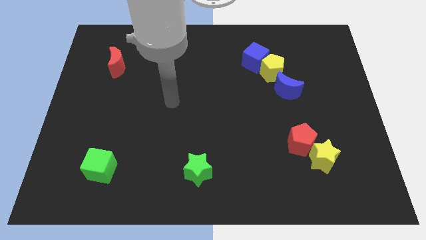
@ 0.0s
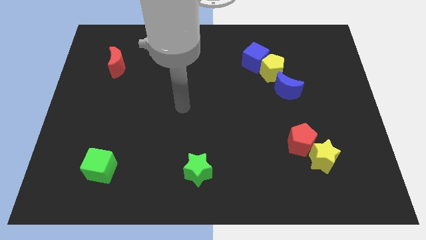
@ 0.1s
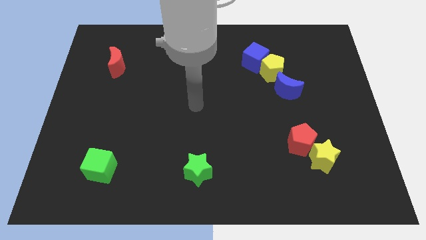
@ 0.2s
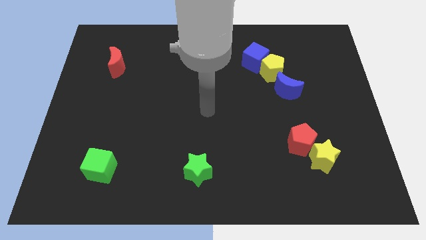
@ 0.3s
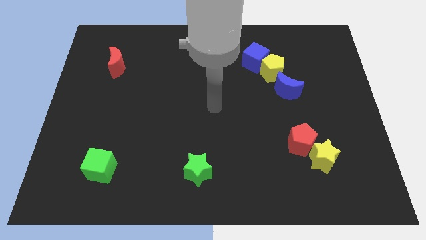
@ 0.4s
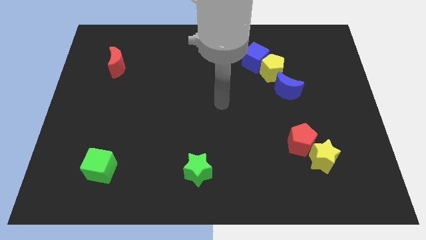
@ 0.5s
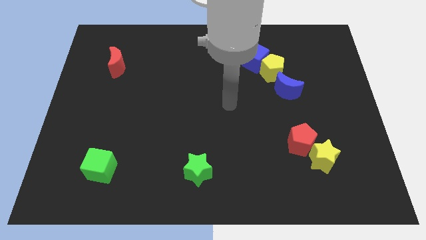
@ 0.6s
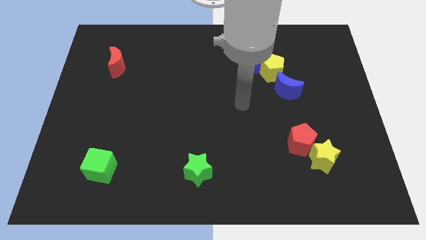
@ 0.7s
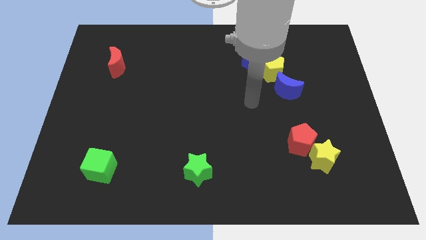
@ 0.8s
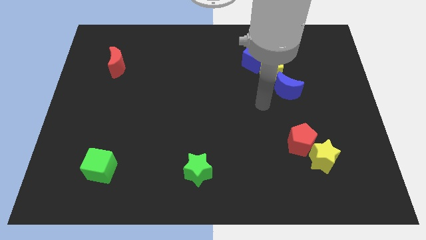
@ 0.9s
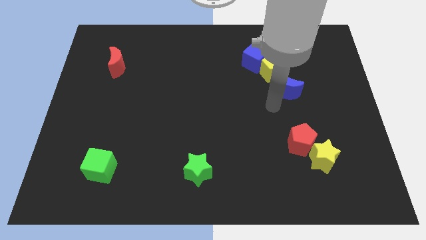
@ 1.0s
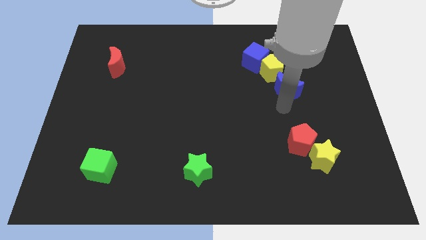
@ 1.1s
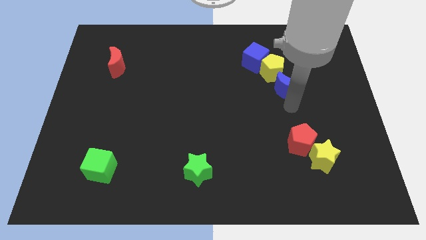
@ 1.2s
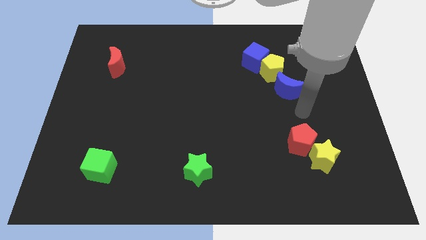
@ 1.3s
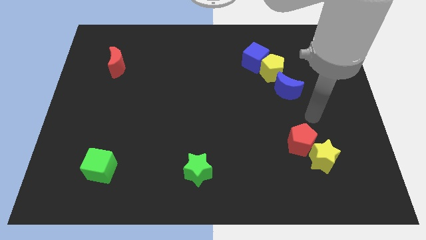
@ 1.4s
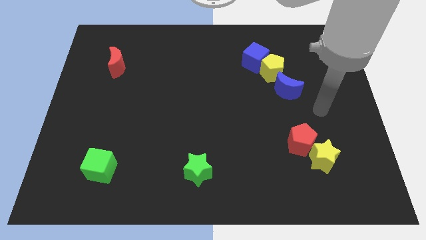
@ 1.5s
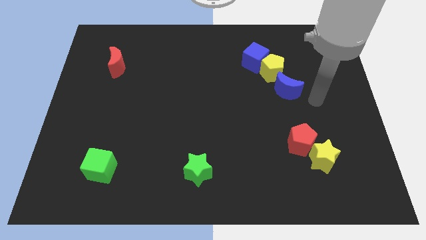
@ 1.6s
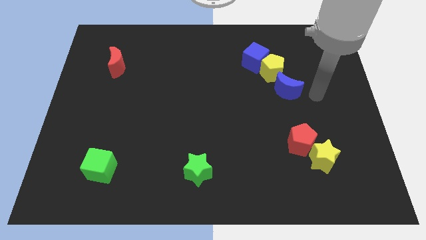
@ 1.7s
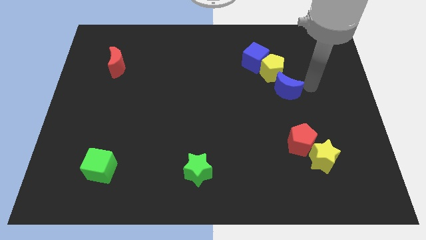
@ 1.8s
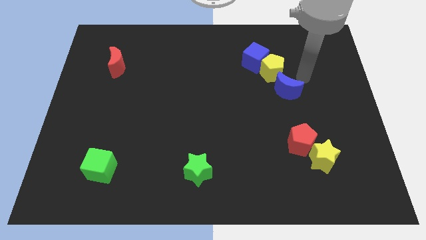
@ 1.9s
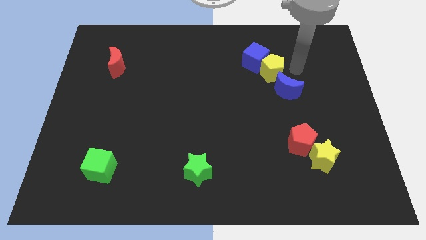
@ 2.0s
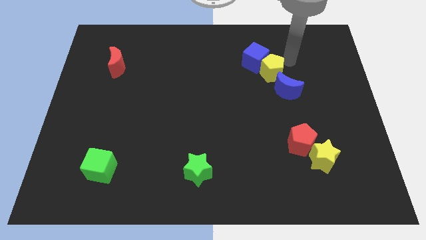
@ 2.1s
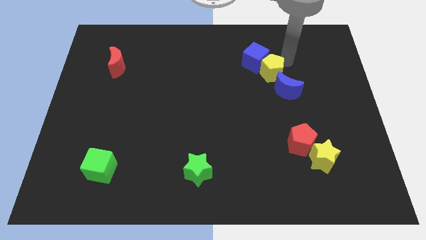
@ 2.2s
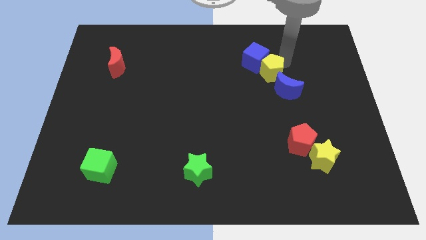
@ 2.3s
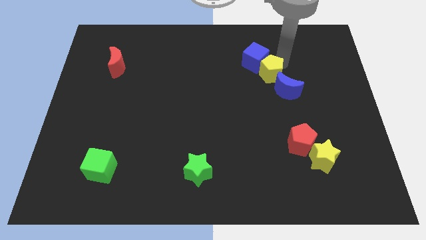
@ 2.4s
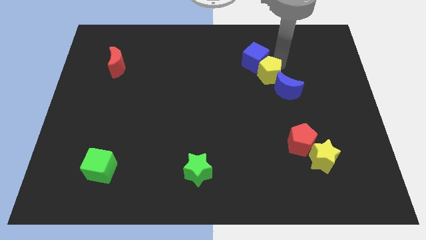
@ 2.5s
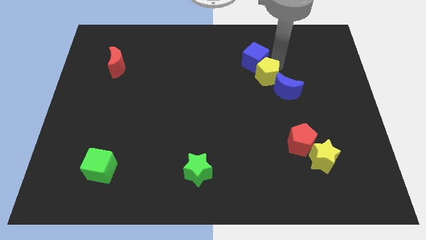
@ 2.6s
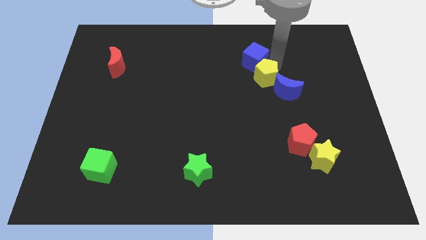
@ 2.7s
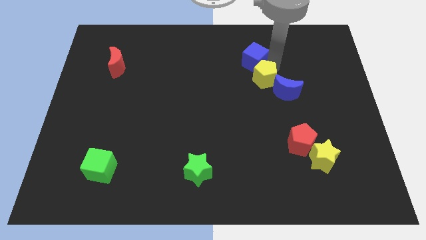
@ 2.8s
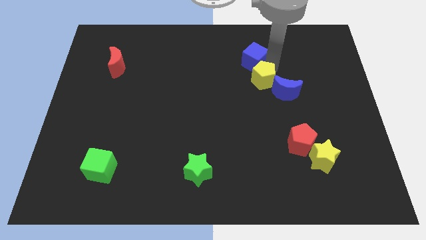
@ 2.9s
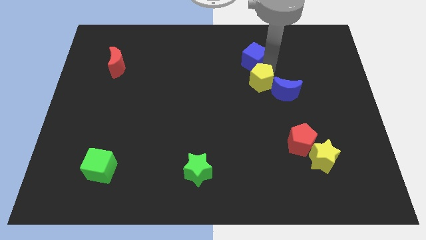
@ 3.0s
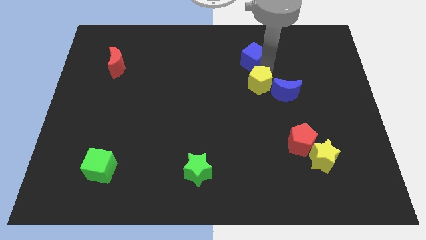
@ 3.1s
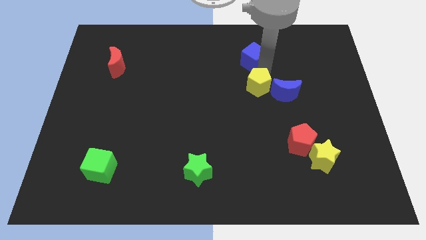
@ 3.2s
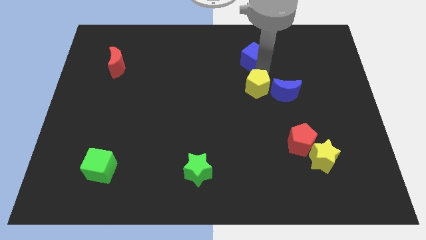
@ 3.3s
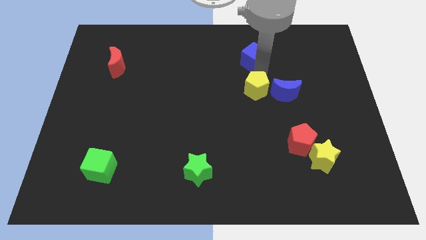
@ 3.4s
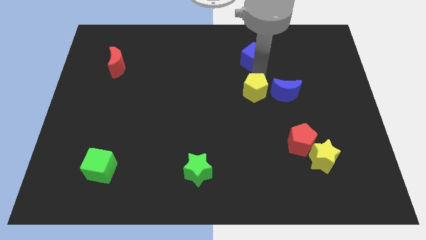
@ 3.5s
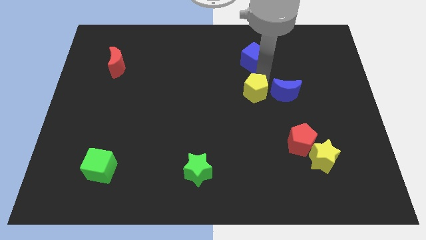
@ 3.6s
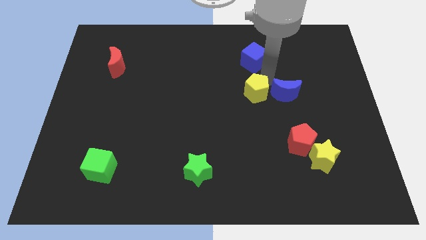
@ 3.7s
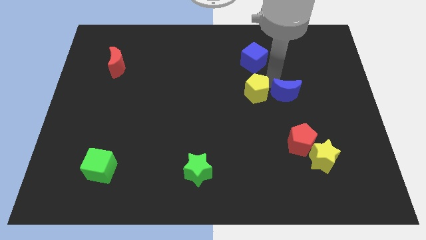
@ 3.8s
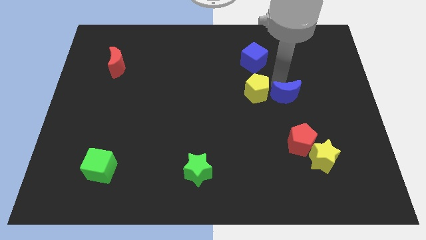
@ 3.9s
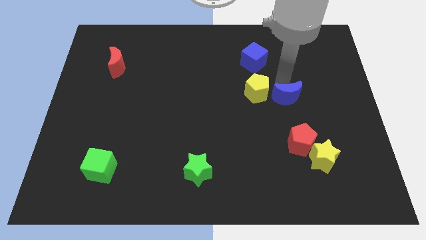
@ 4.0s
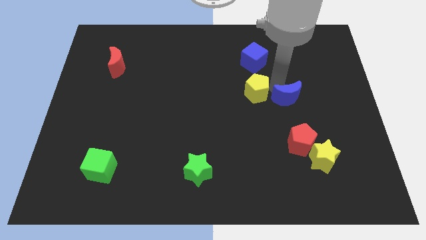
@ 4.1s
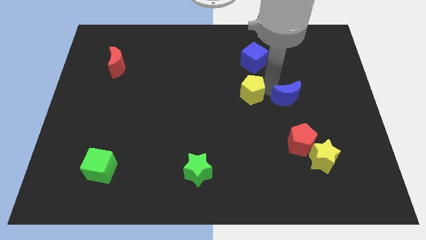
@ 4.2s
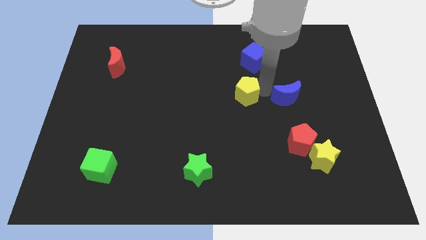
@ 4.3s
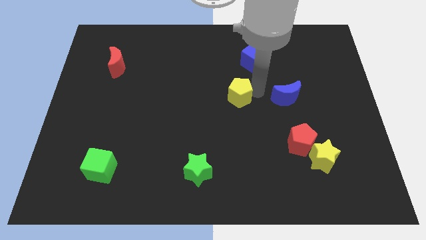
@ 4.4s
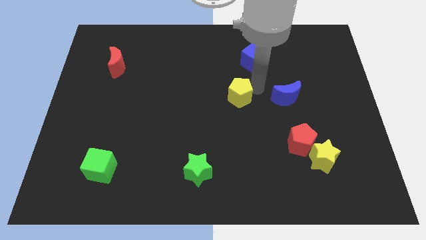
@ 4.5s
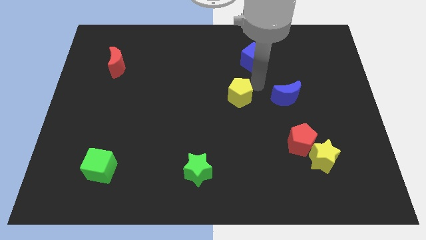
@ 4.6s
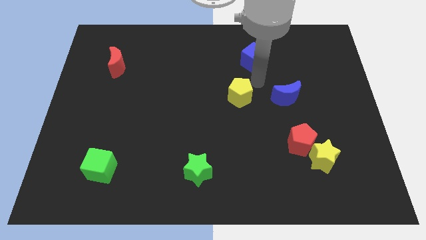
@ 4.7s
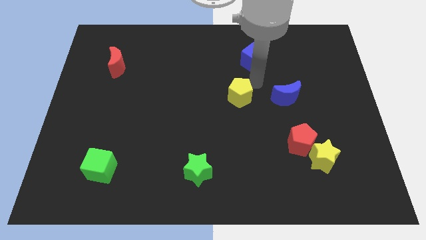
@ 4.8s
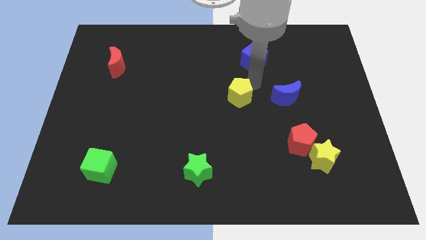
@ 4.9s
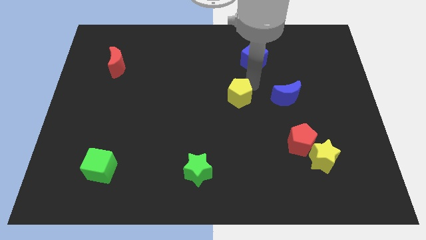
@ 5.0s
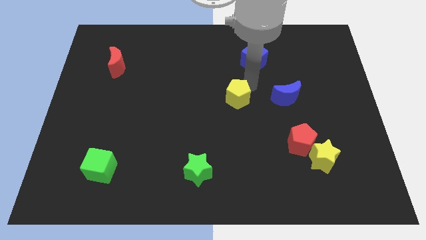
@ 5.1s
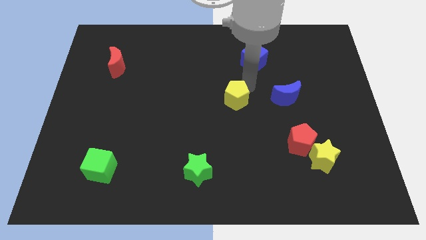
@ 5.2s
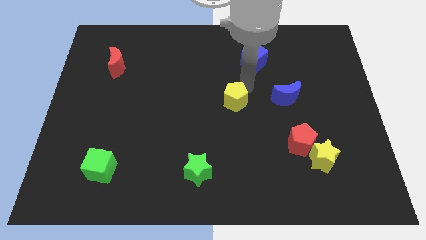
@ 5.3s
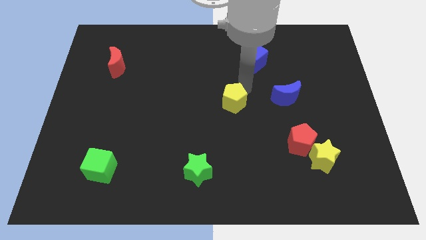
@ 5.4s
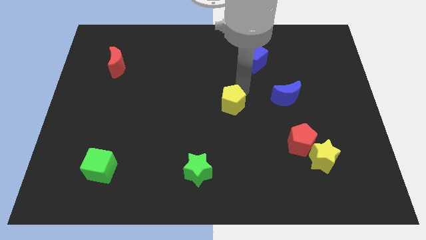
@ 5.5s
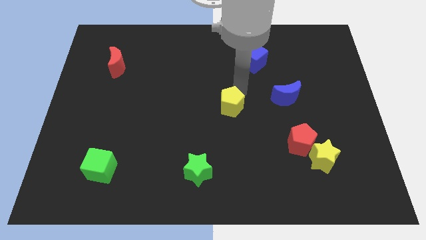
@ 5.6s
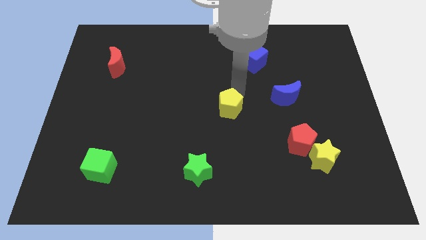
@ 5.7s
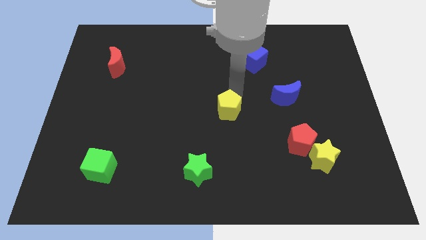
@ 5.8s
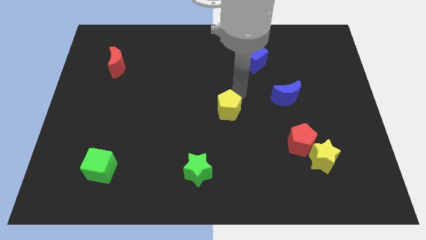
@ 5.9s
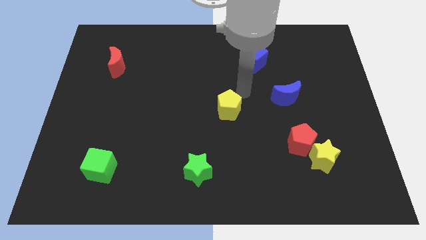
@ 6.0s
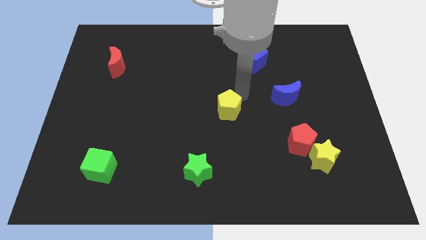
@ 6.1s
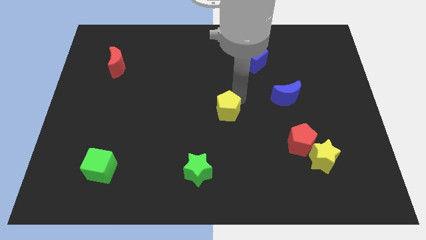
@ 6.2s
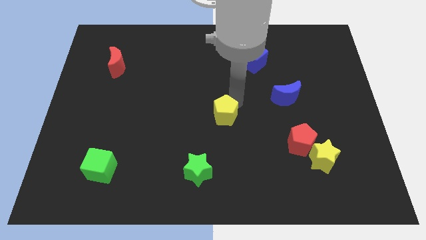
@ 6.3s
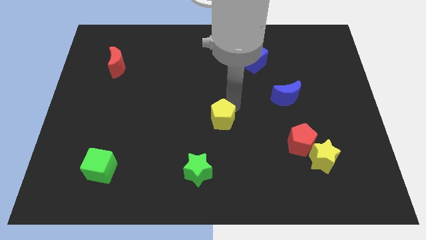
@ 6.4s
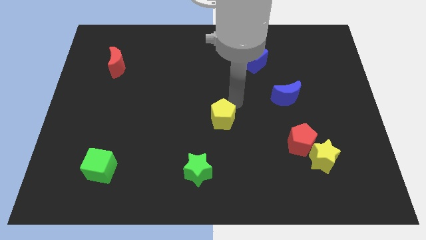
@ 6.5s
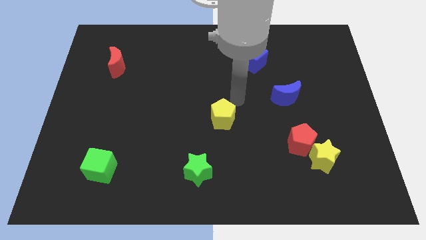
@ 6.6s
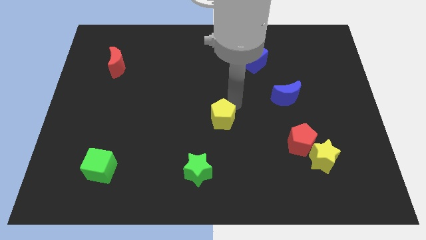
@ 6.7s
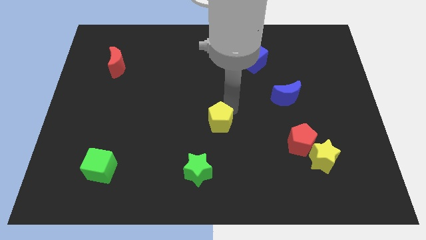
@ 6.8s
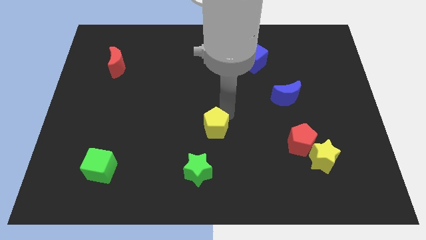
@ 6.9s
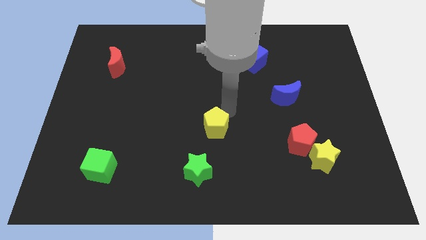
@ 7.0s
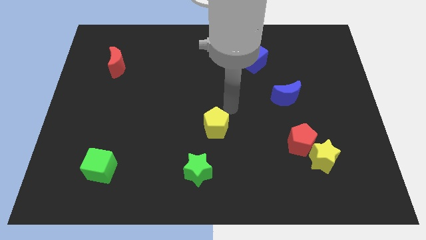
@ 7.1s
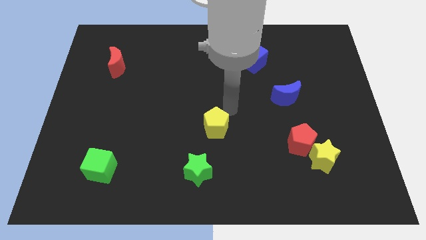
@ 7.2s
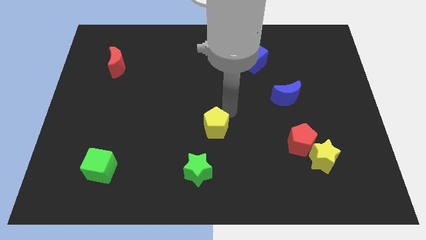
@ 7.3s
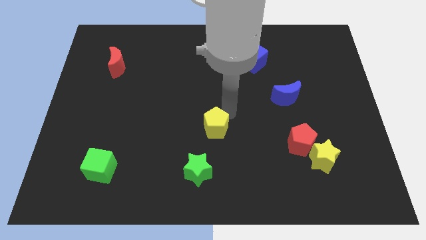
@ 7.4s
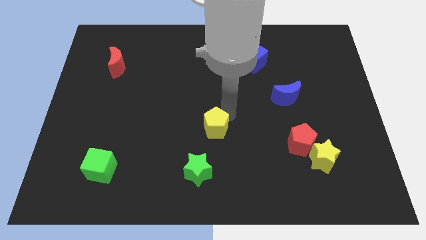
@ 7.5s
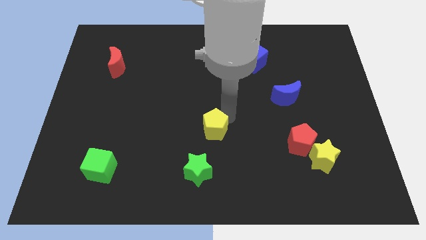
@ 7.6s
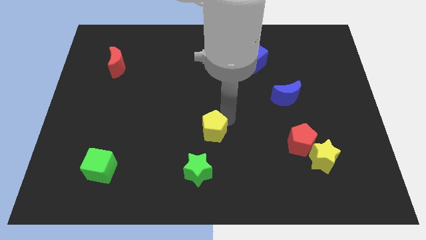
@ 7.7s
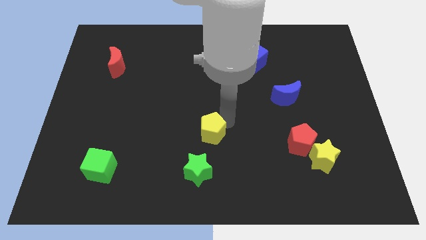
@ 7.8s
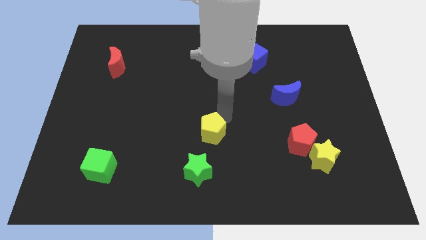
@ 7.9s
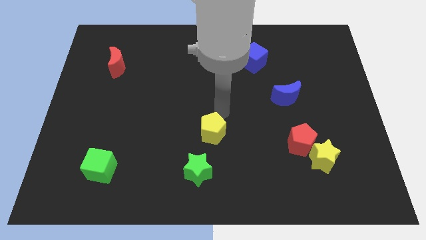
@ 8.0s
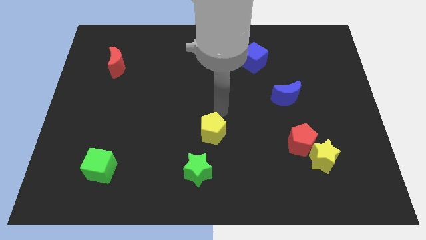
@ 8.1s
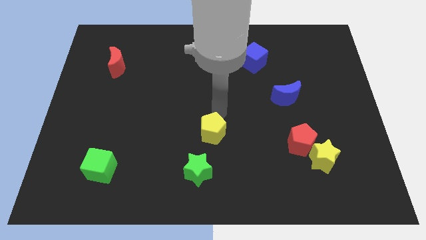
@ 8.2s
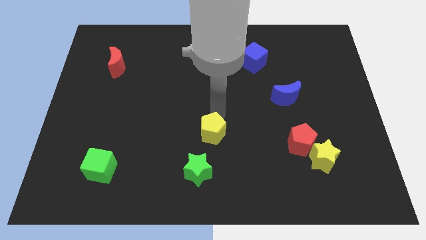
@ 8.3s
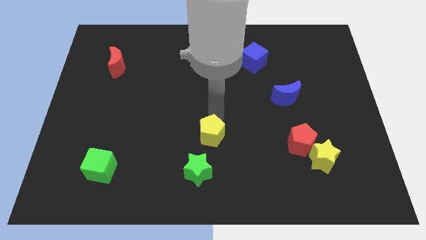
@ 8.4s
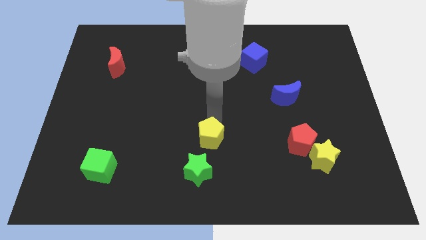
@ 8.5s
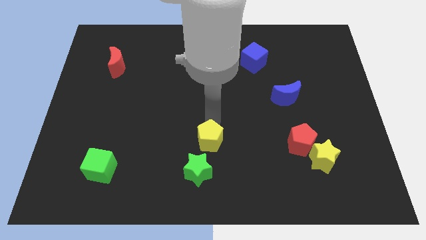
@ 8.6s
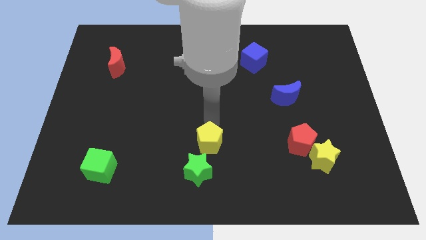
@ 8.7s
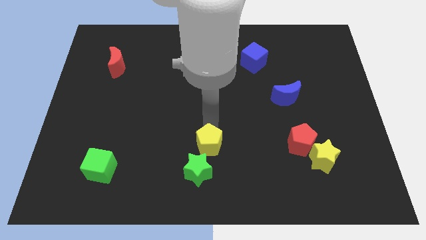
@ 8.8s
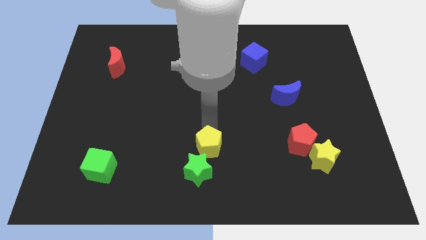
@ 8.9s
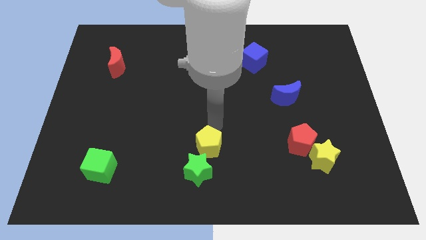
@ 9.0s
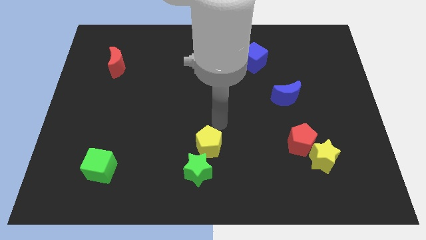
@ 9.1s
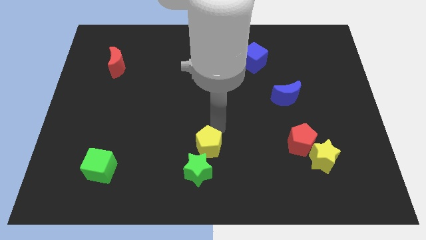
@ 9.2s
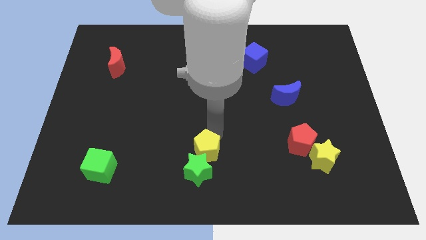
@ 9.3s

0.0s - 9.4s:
put the yellow pentagon towards the green star
